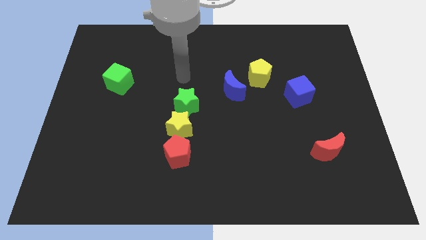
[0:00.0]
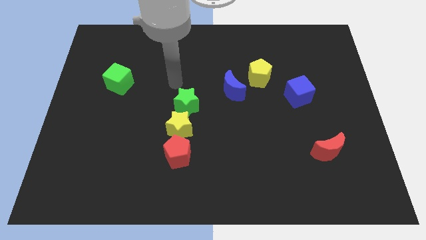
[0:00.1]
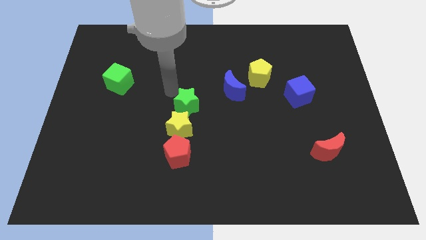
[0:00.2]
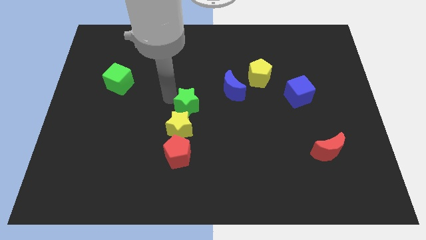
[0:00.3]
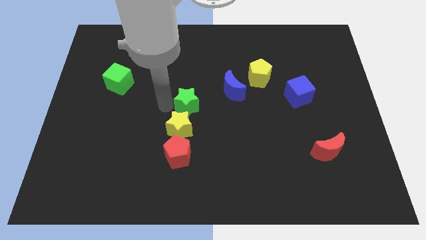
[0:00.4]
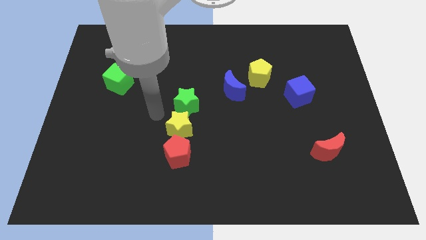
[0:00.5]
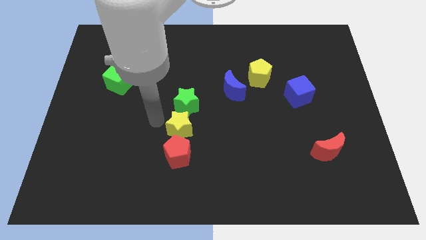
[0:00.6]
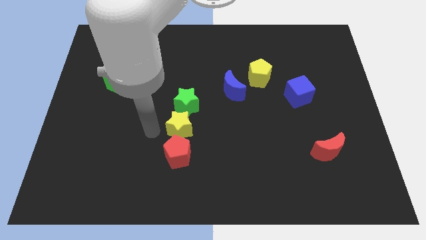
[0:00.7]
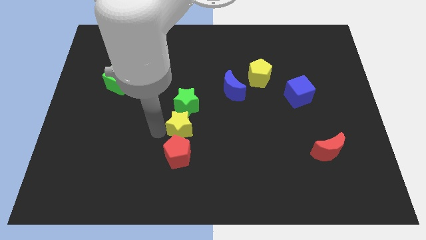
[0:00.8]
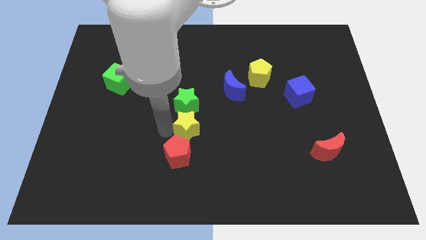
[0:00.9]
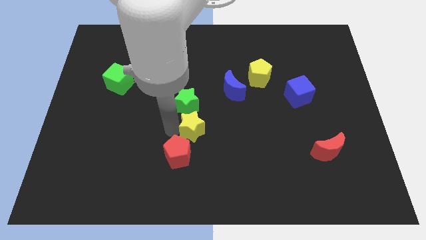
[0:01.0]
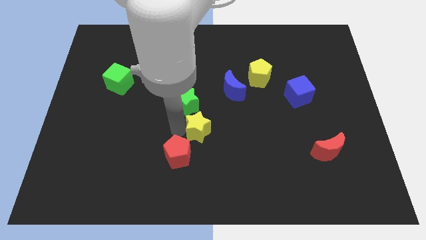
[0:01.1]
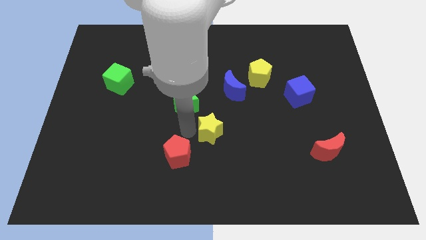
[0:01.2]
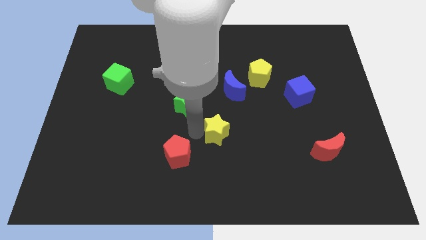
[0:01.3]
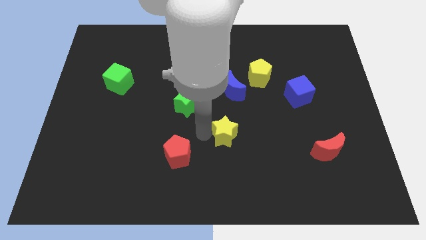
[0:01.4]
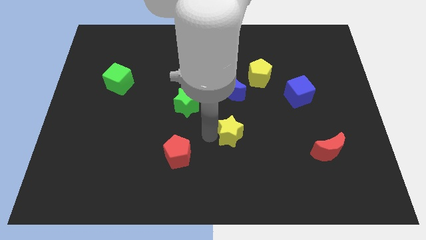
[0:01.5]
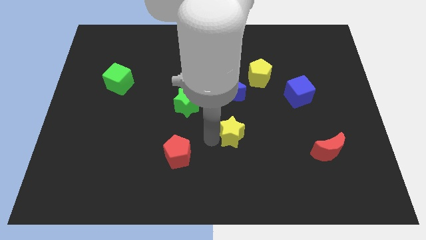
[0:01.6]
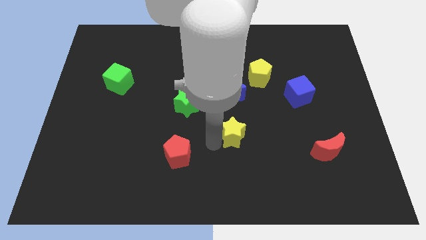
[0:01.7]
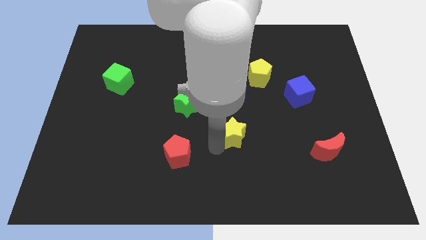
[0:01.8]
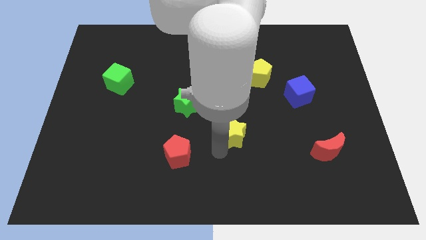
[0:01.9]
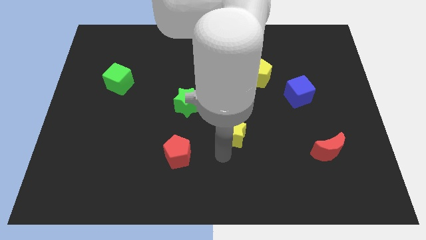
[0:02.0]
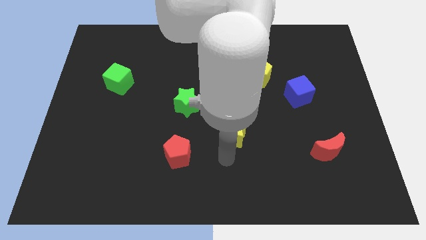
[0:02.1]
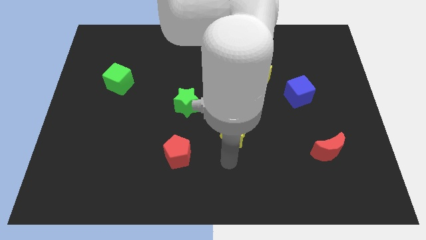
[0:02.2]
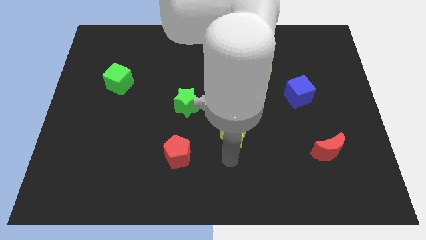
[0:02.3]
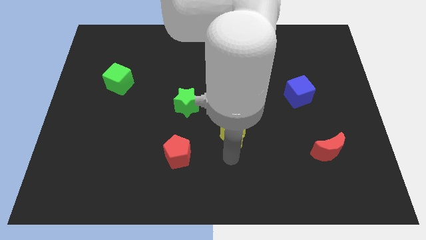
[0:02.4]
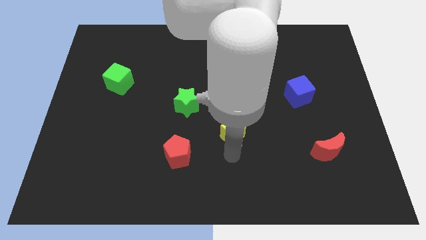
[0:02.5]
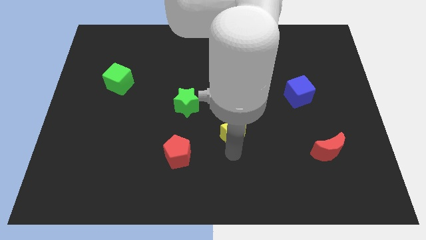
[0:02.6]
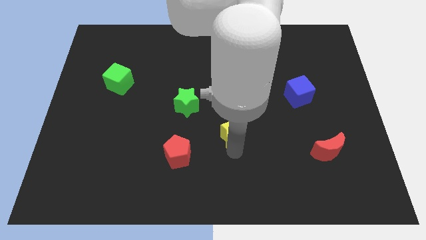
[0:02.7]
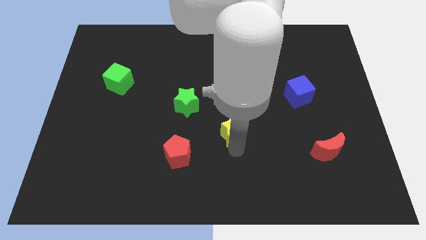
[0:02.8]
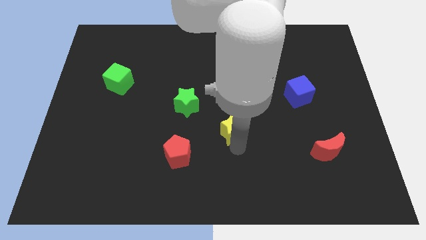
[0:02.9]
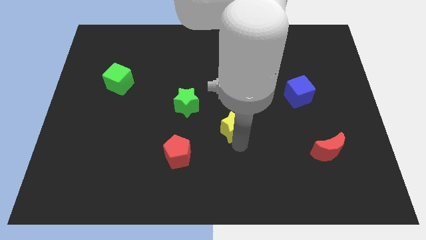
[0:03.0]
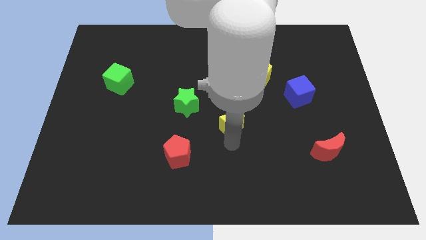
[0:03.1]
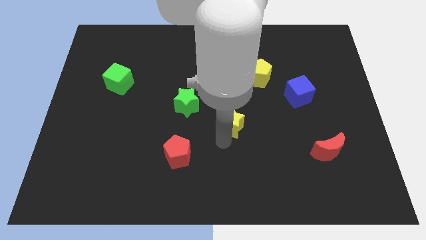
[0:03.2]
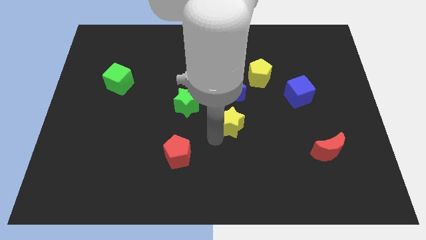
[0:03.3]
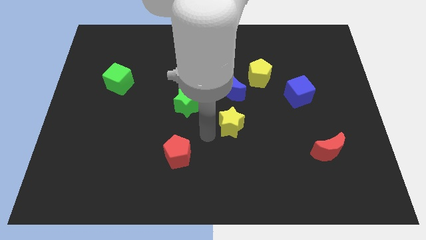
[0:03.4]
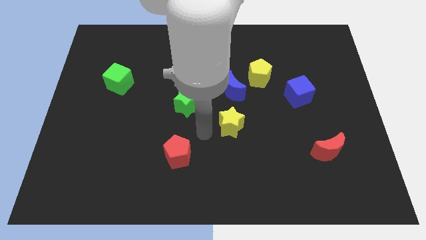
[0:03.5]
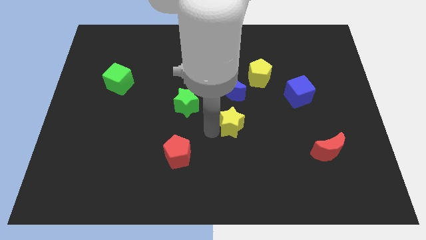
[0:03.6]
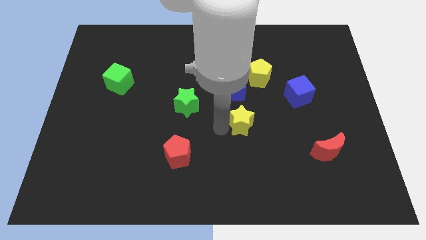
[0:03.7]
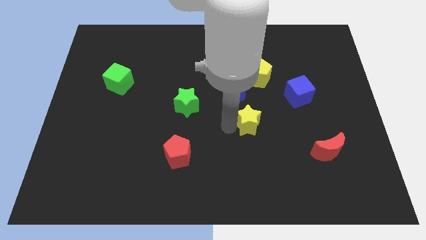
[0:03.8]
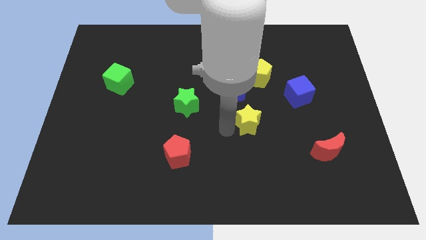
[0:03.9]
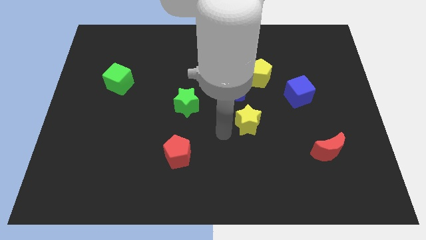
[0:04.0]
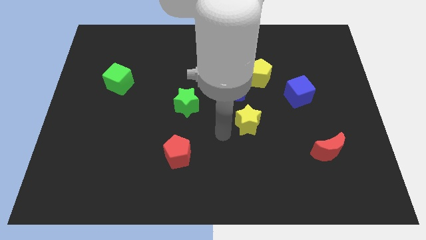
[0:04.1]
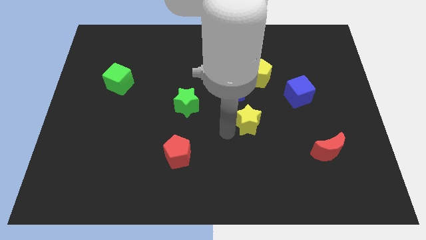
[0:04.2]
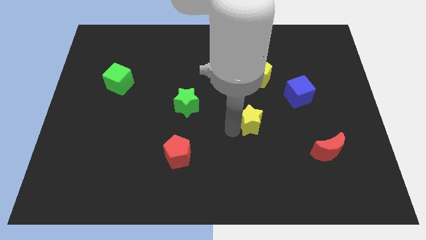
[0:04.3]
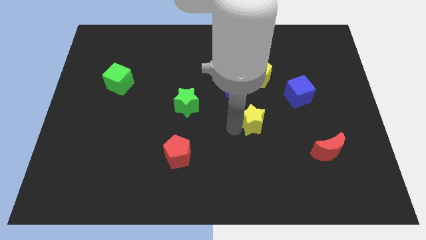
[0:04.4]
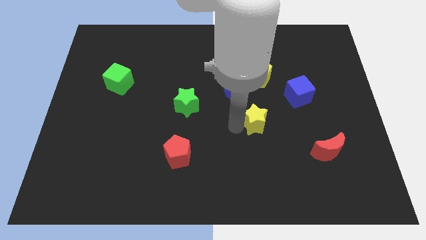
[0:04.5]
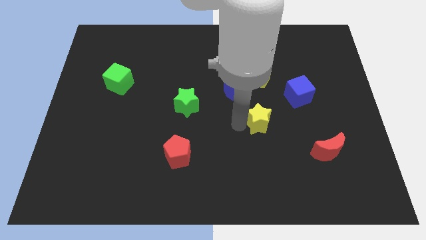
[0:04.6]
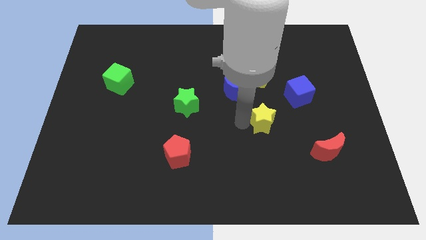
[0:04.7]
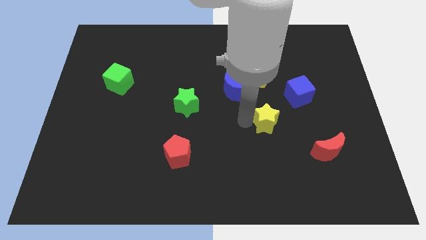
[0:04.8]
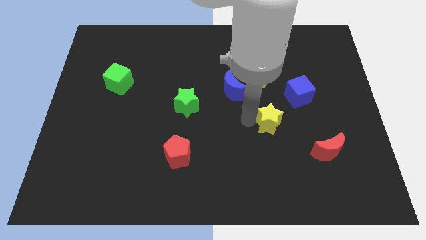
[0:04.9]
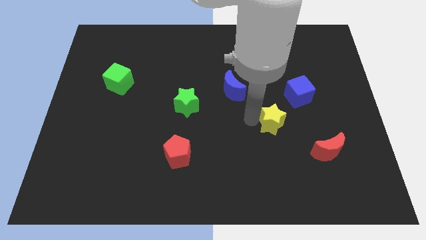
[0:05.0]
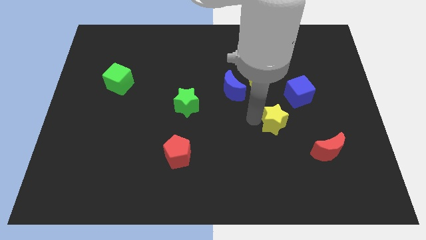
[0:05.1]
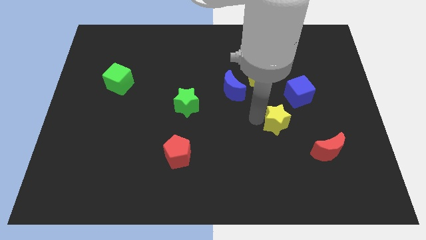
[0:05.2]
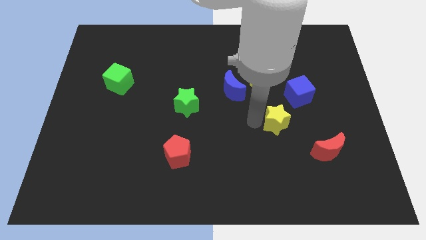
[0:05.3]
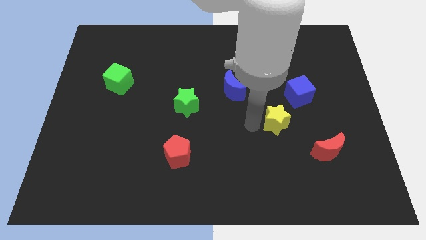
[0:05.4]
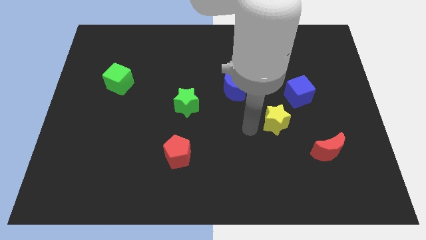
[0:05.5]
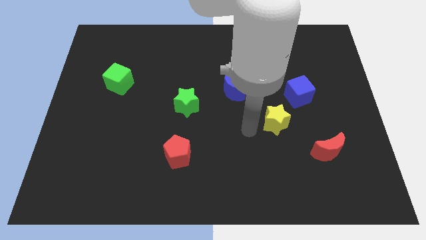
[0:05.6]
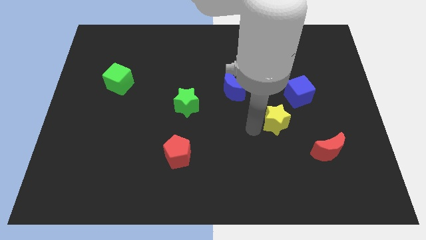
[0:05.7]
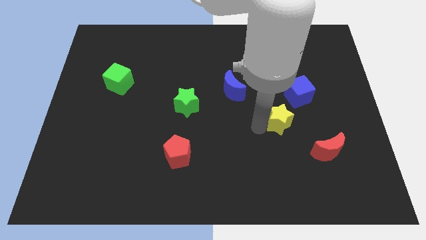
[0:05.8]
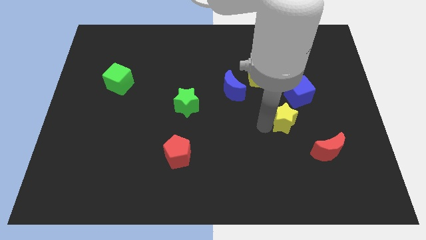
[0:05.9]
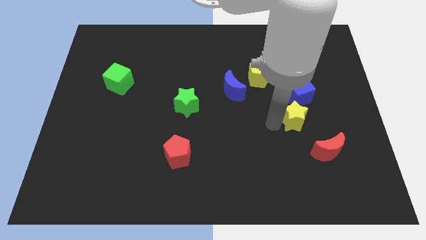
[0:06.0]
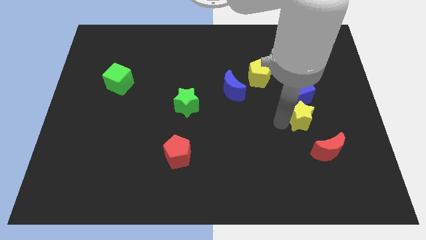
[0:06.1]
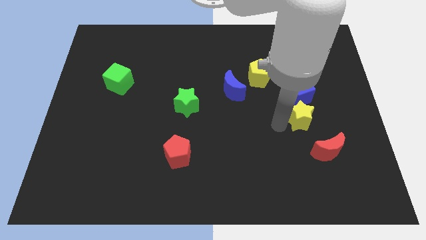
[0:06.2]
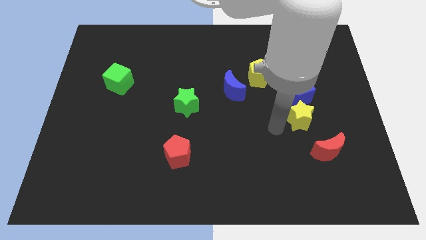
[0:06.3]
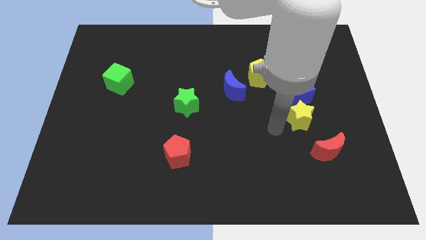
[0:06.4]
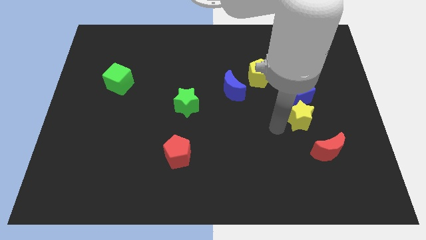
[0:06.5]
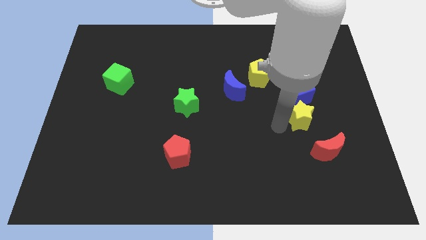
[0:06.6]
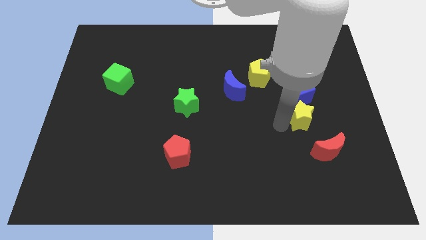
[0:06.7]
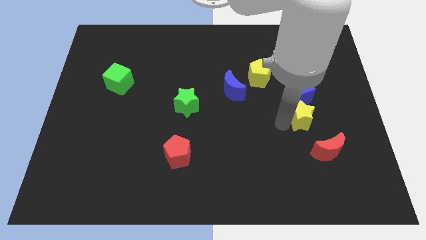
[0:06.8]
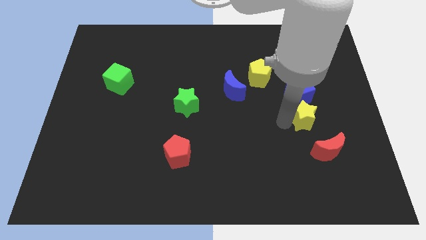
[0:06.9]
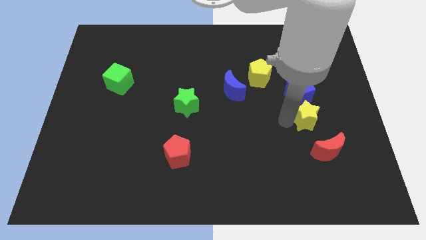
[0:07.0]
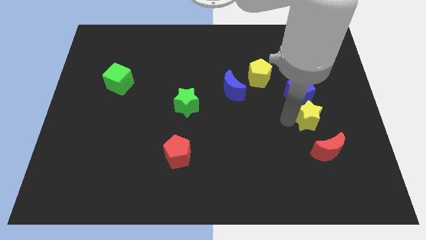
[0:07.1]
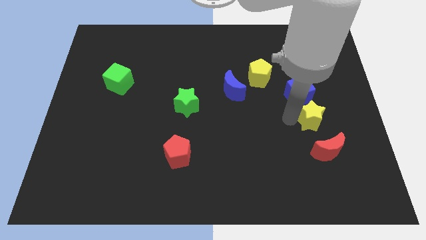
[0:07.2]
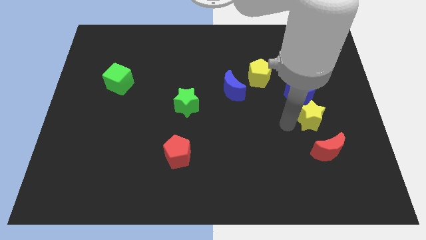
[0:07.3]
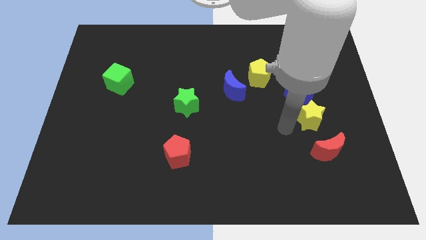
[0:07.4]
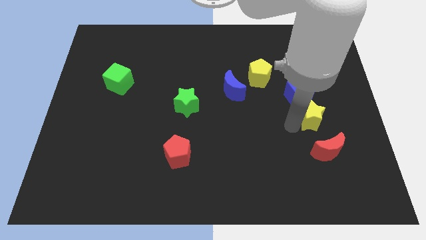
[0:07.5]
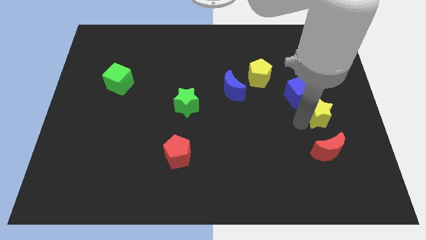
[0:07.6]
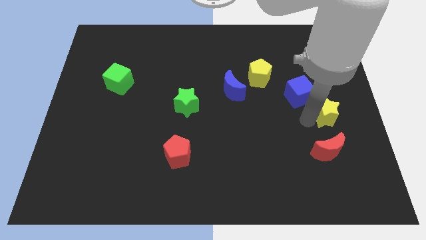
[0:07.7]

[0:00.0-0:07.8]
push the yellow star to the center right

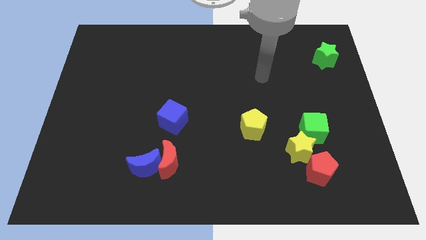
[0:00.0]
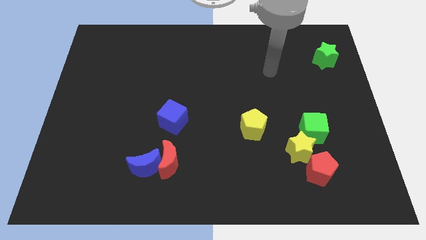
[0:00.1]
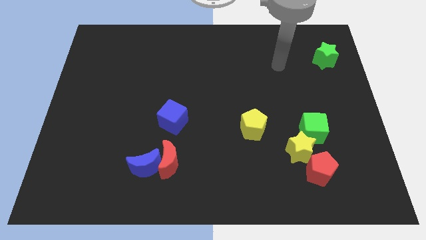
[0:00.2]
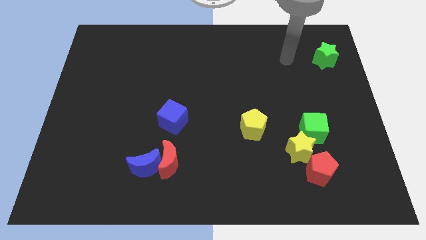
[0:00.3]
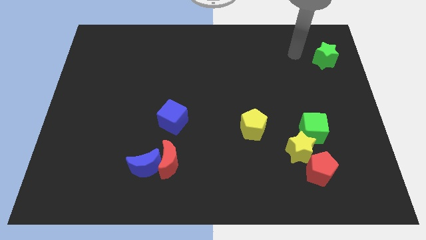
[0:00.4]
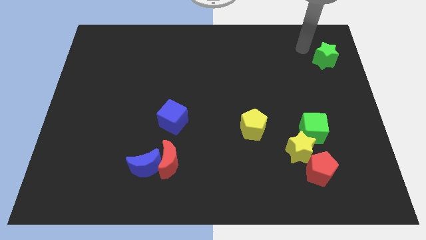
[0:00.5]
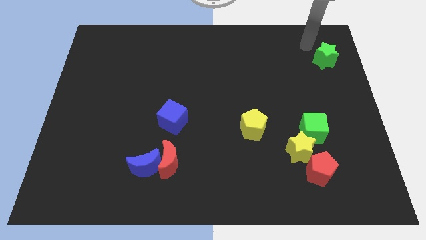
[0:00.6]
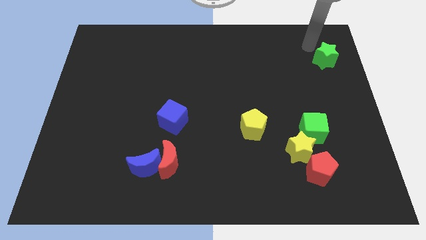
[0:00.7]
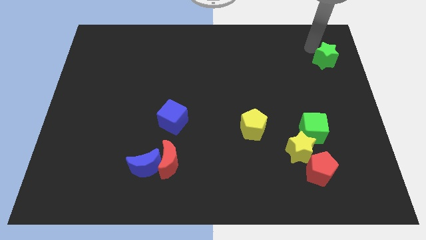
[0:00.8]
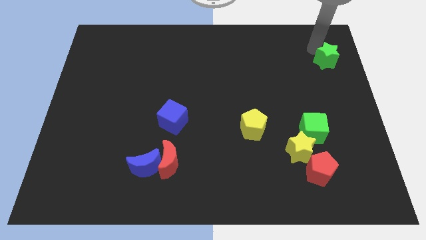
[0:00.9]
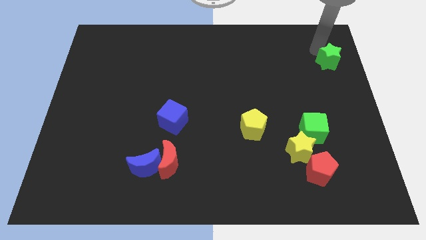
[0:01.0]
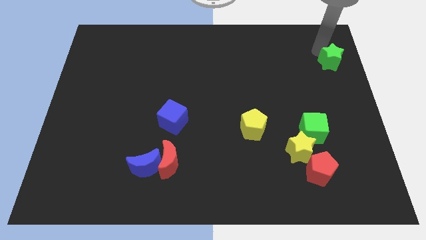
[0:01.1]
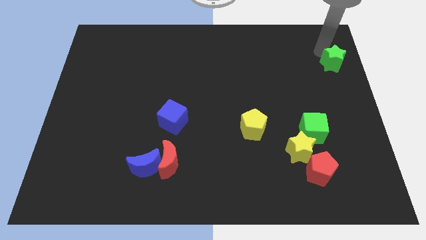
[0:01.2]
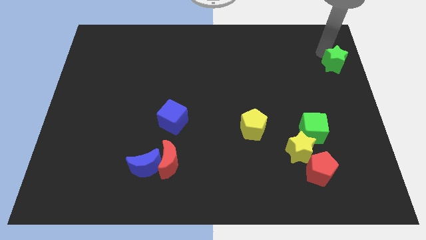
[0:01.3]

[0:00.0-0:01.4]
push the green star to the center right
